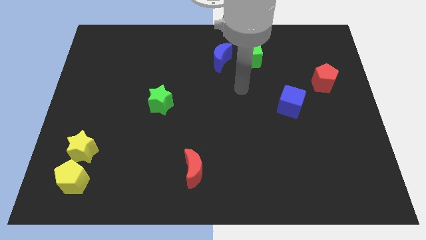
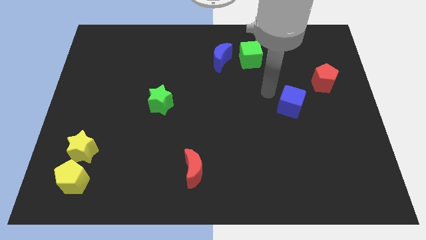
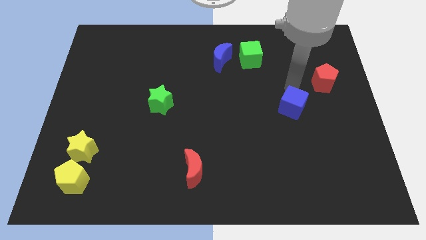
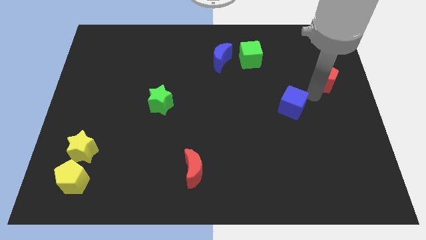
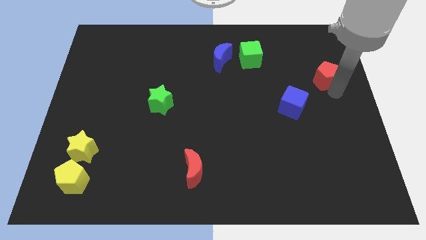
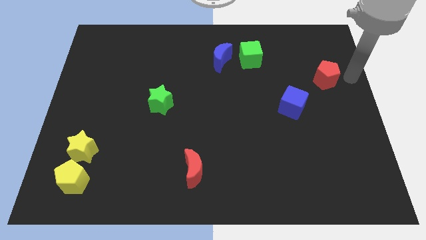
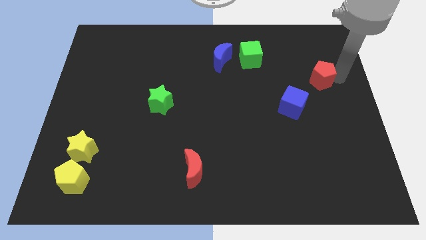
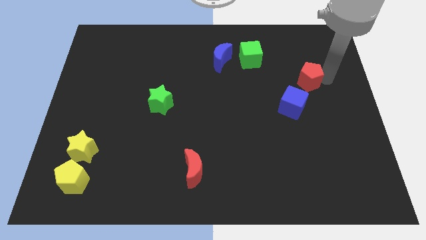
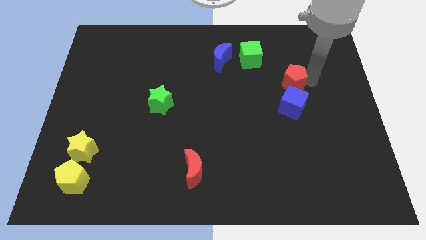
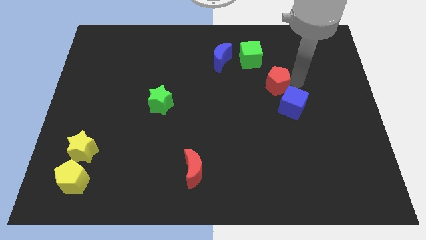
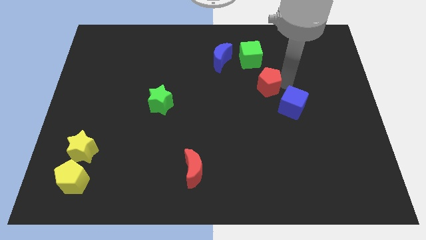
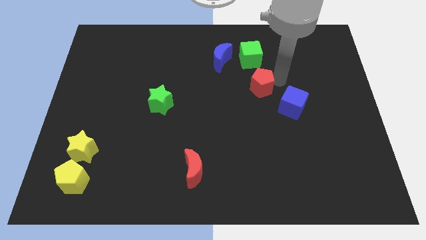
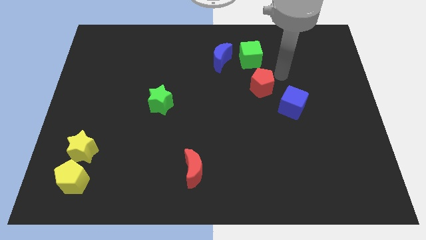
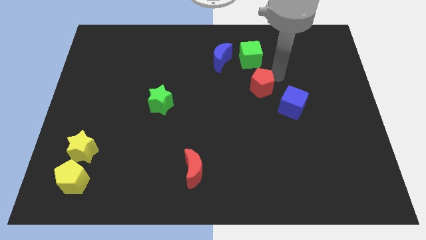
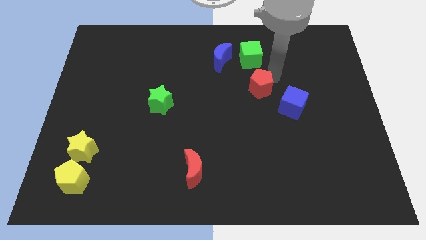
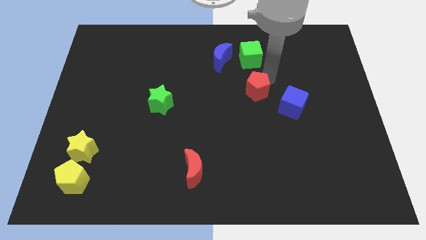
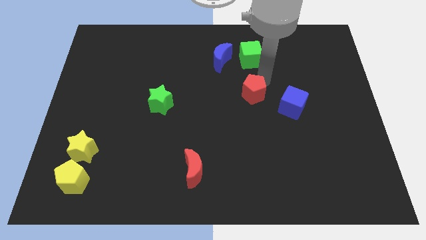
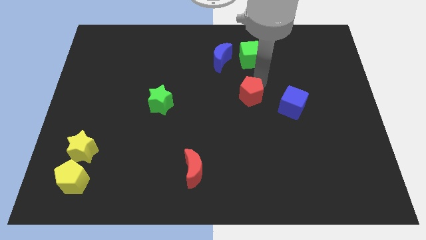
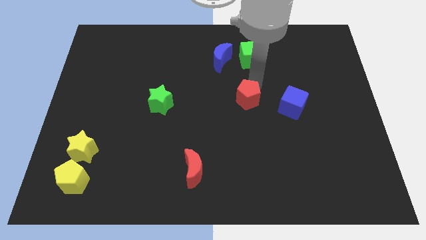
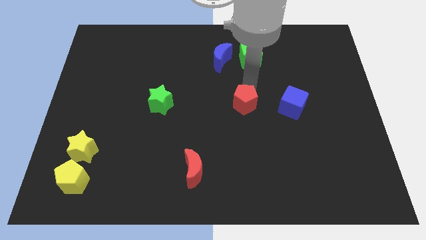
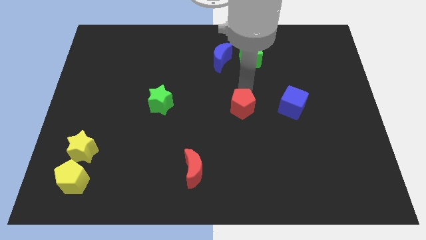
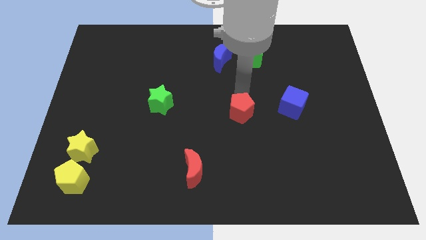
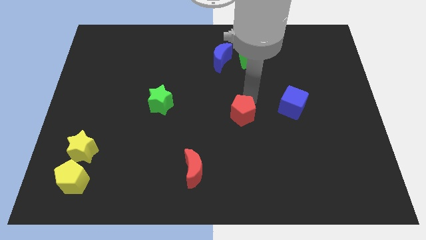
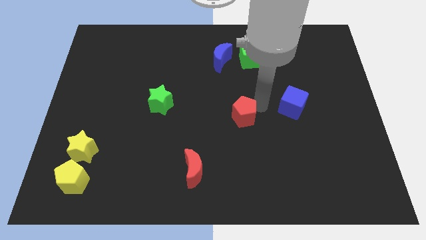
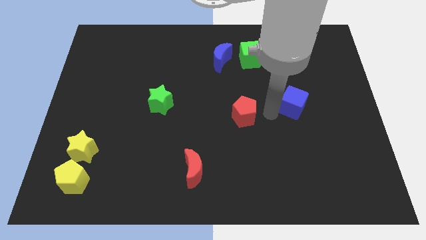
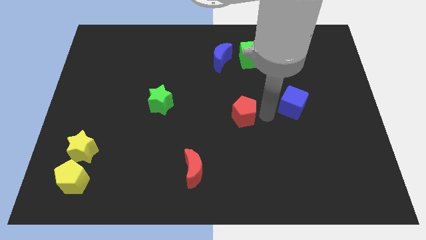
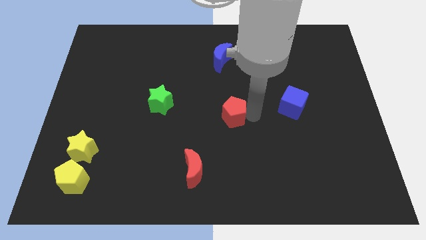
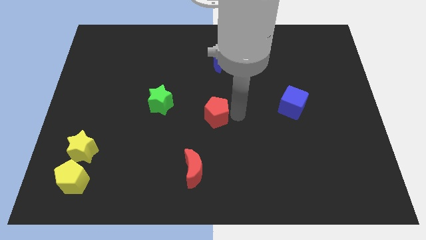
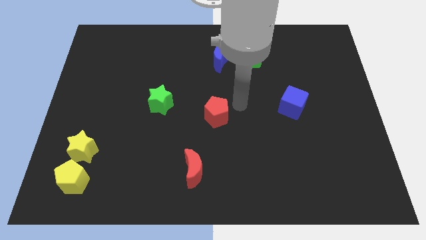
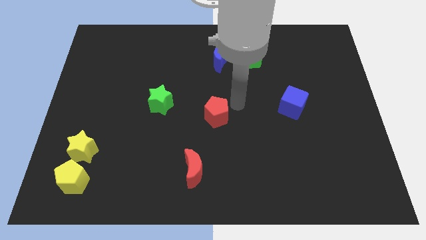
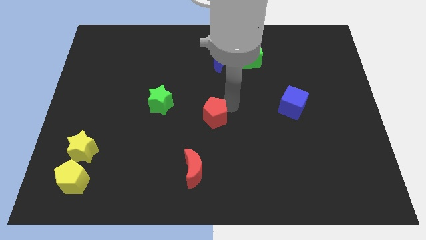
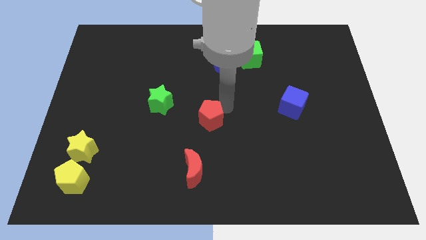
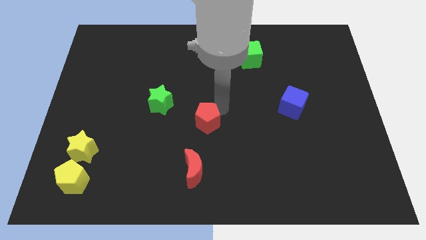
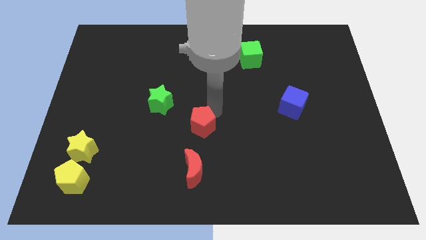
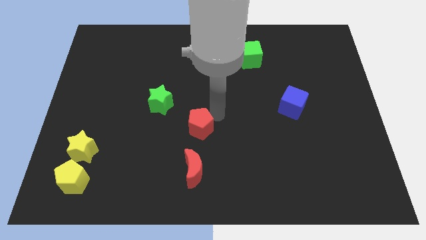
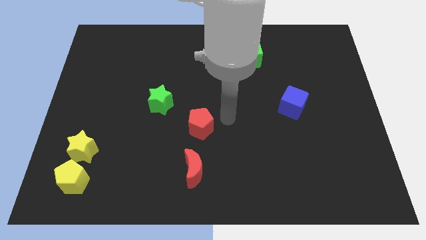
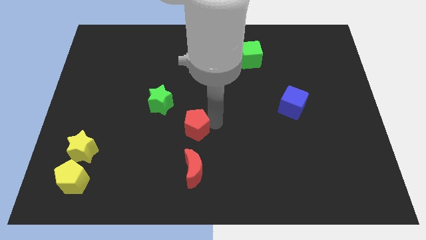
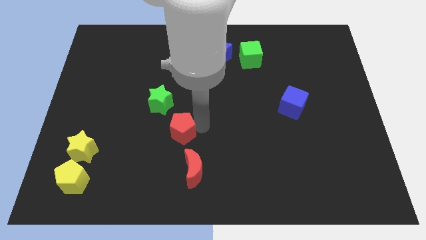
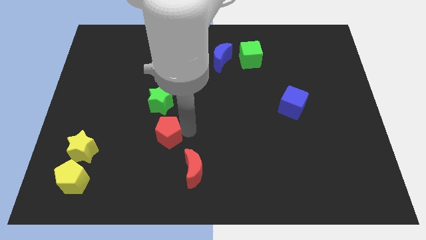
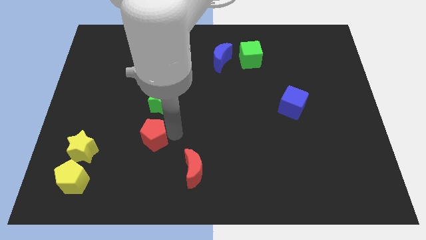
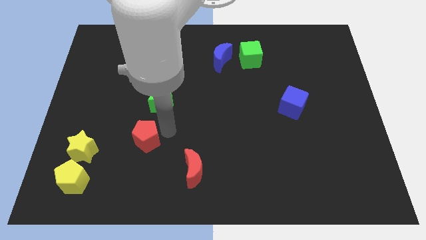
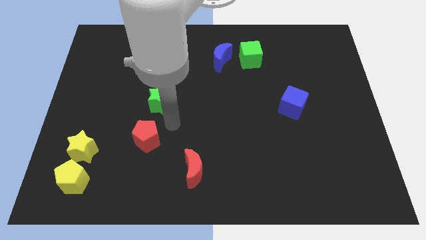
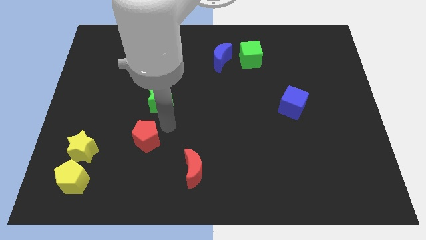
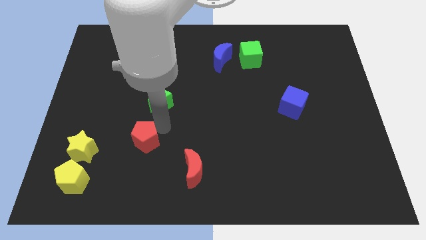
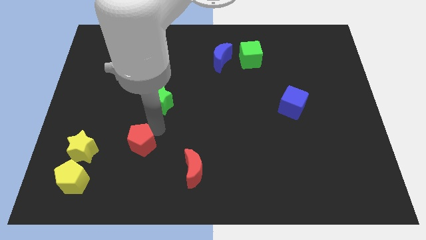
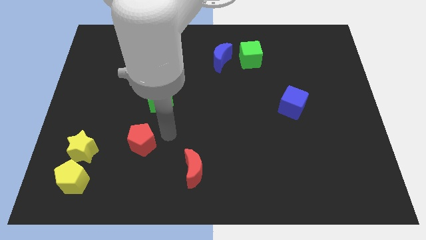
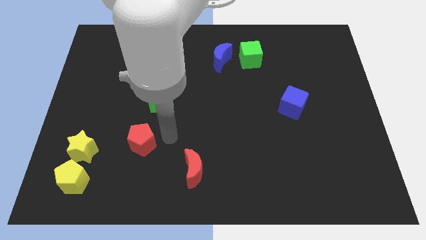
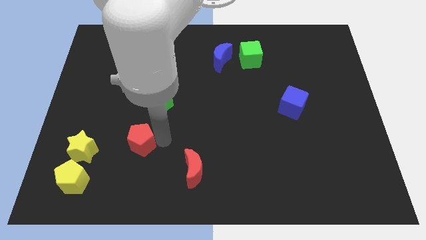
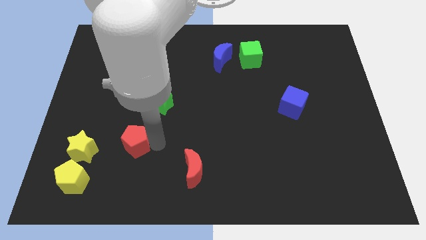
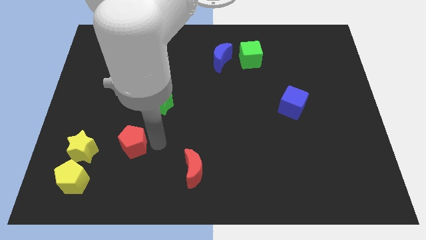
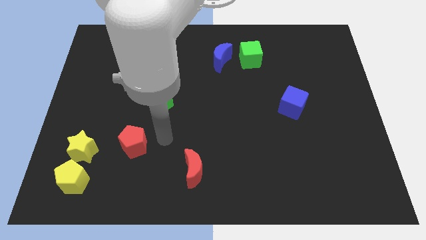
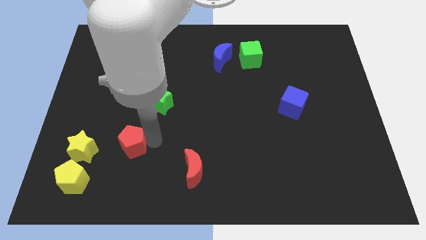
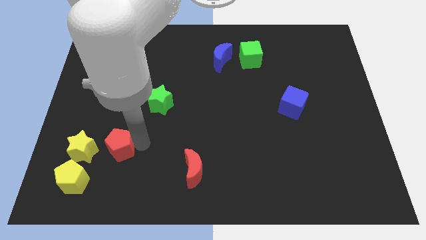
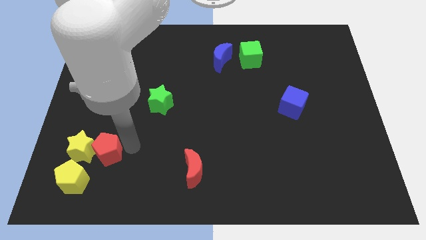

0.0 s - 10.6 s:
push the red pentagon towards the yellow star

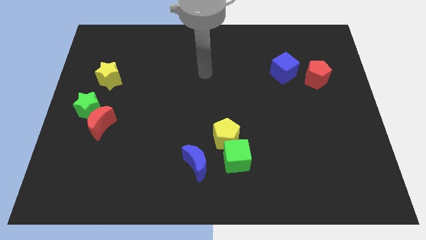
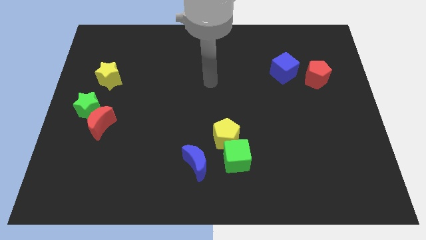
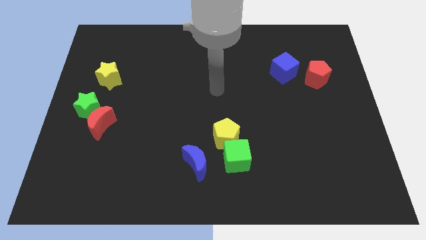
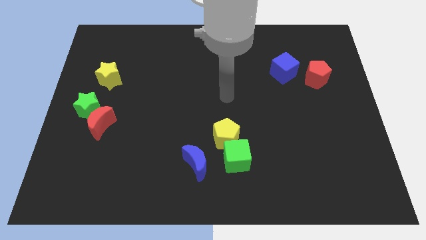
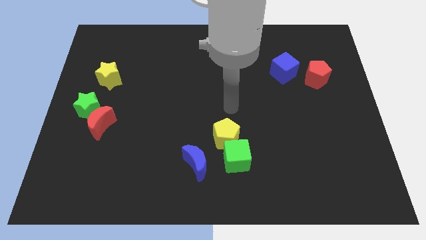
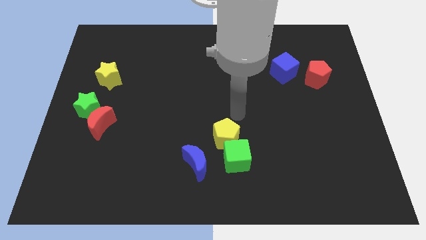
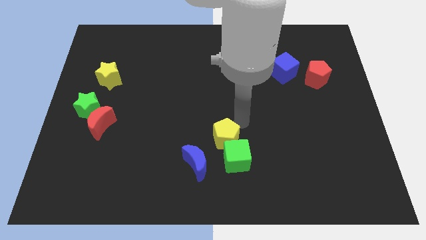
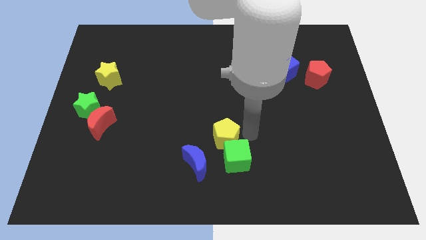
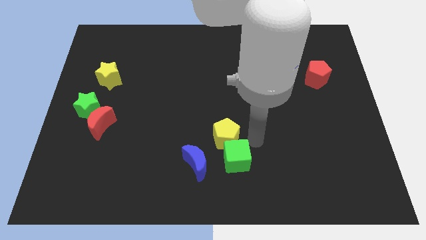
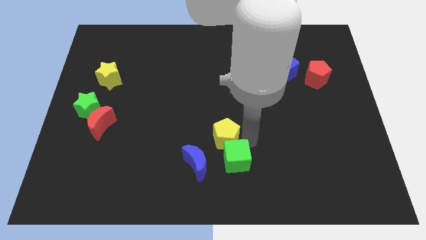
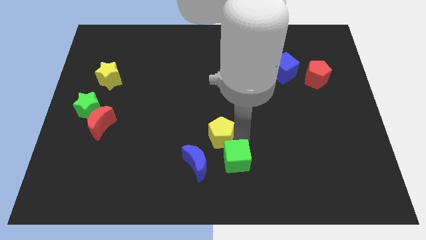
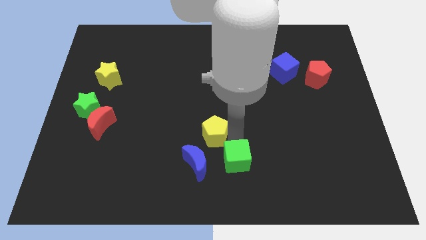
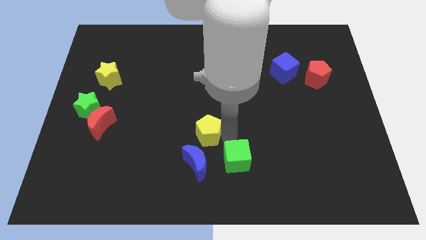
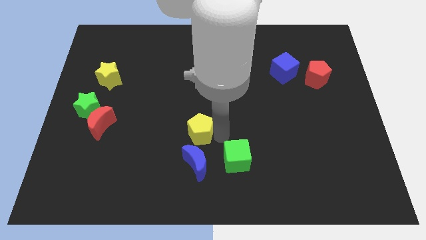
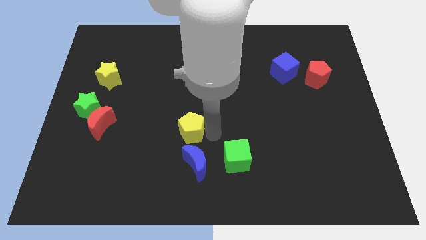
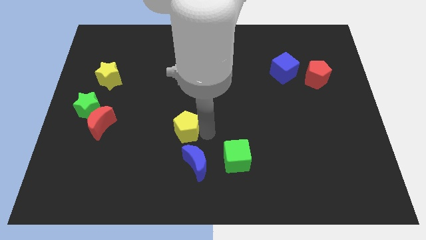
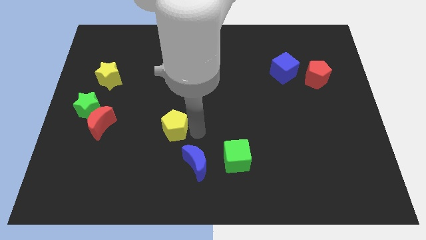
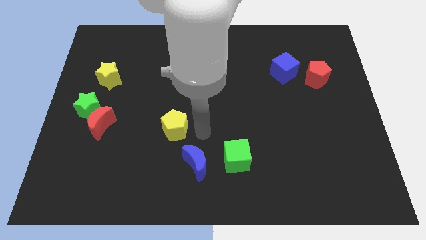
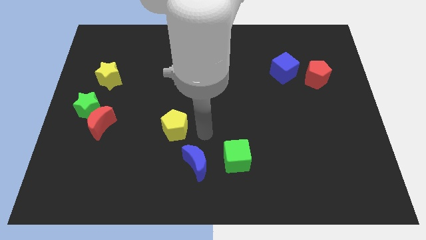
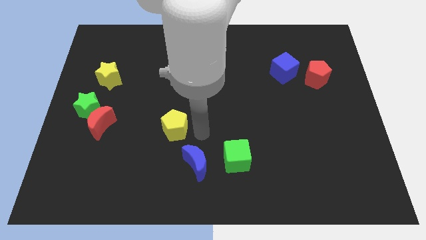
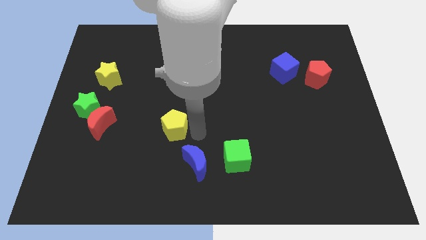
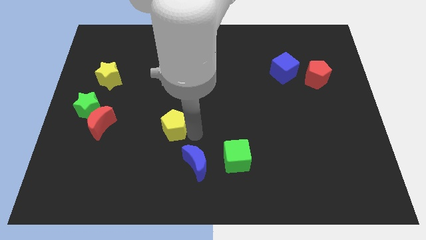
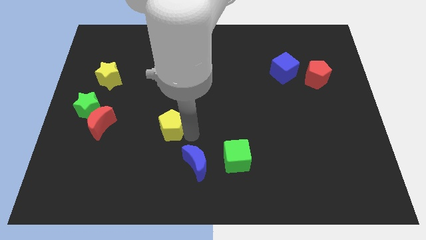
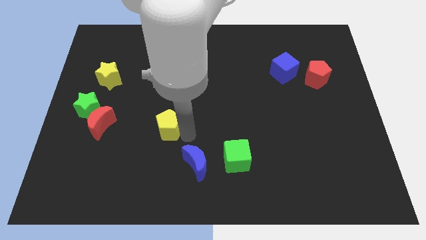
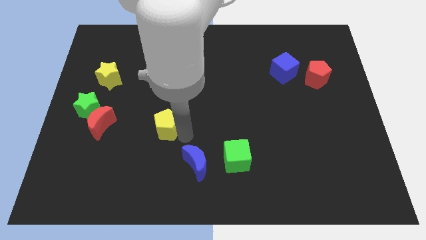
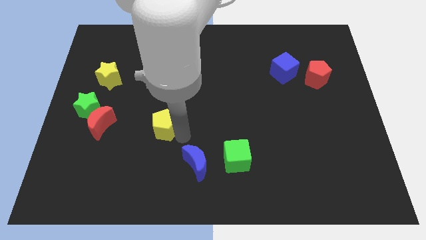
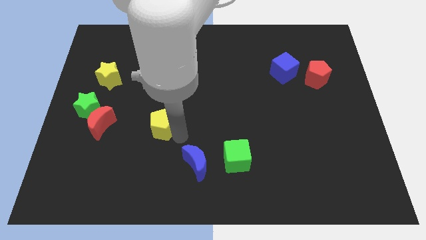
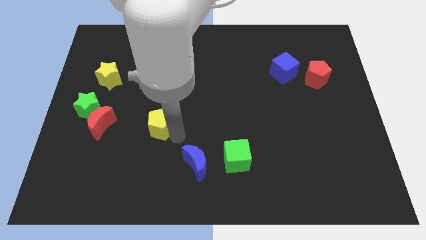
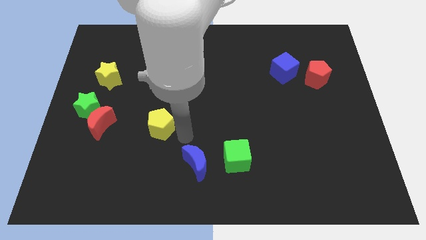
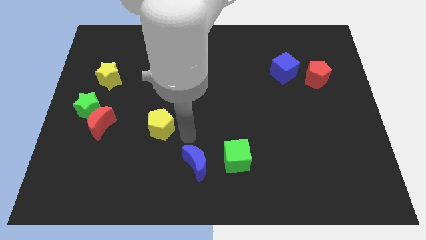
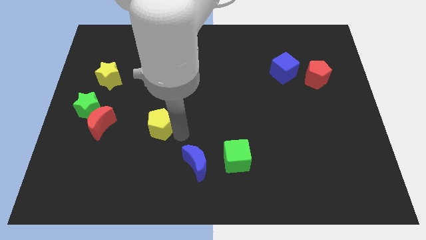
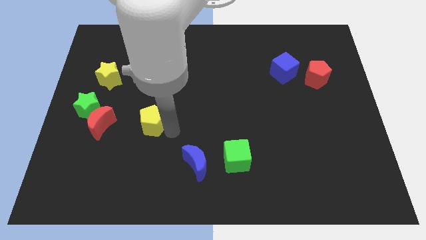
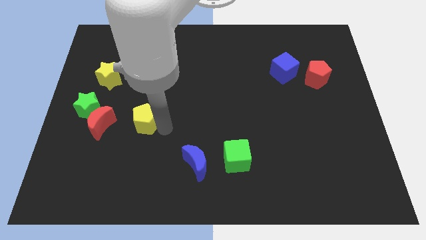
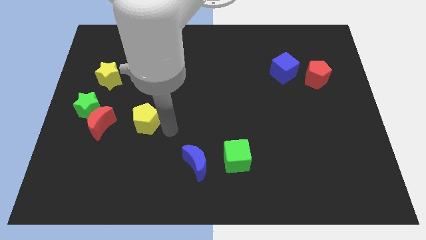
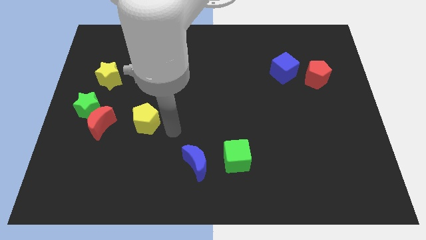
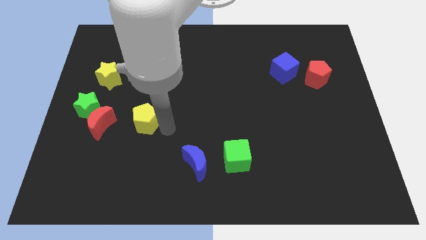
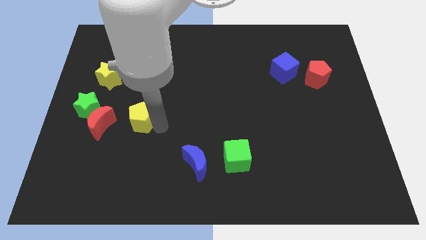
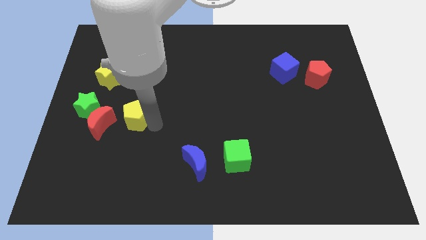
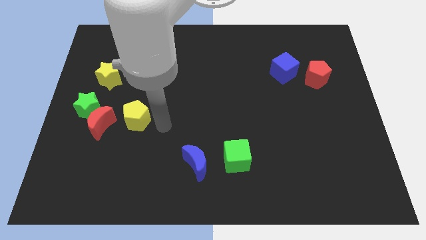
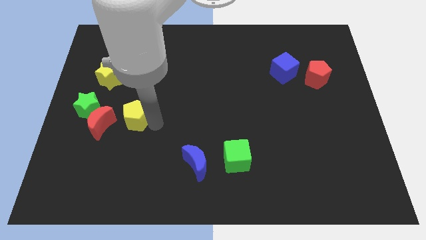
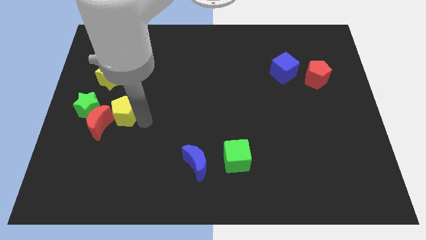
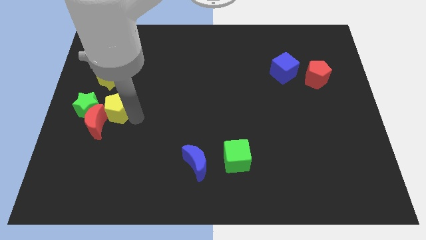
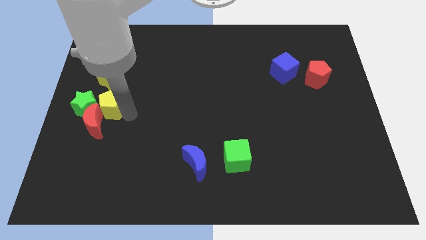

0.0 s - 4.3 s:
push the yellow pentagon to the green star
